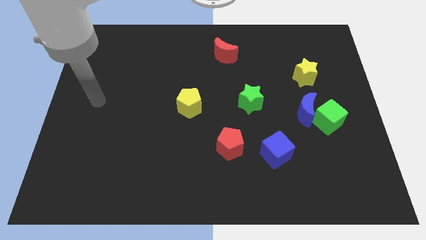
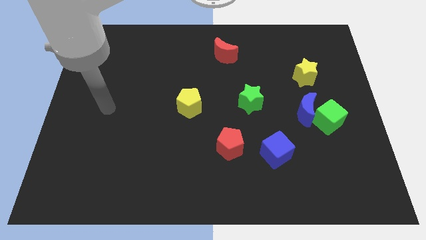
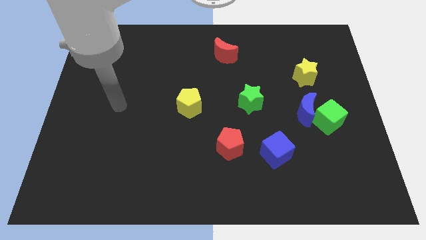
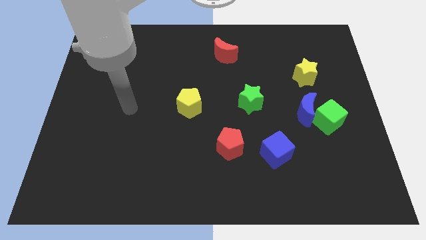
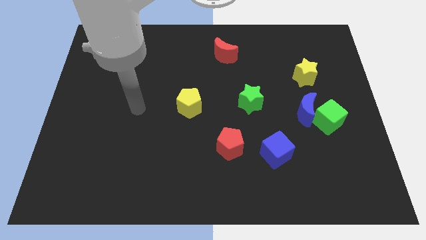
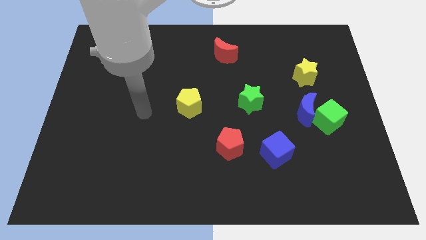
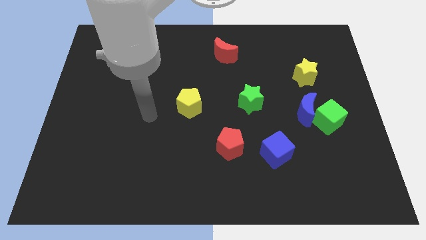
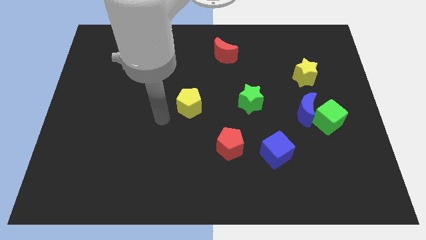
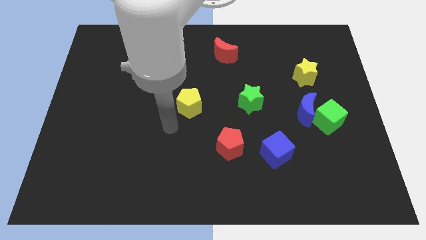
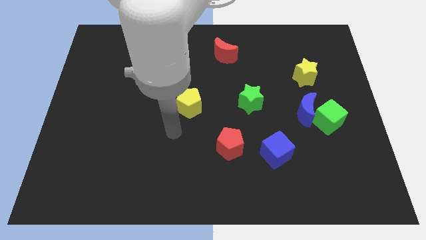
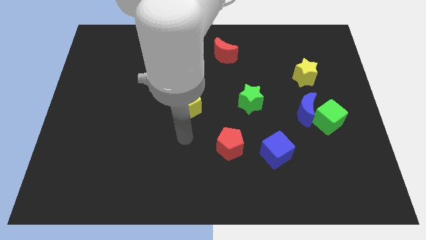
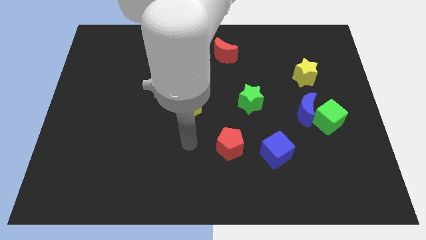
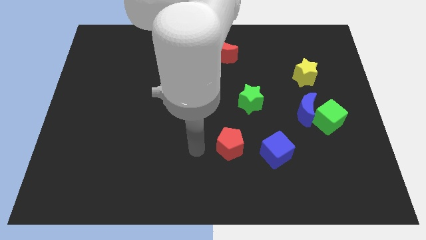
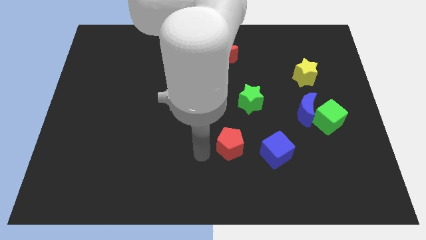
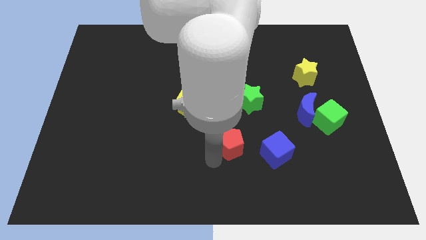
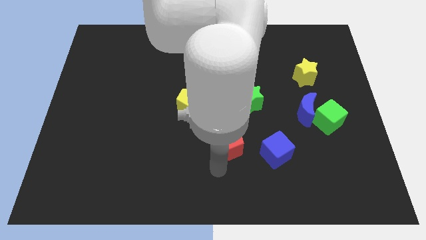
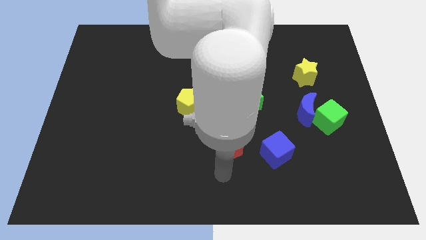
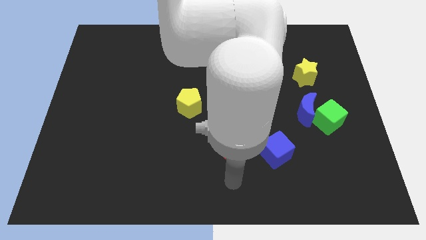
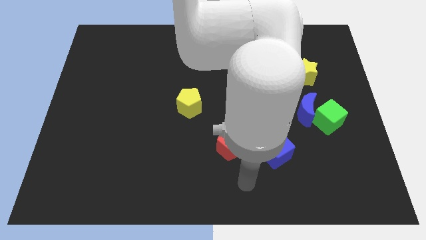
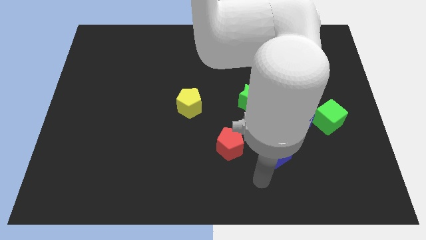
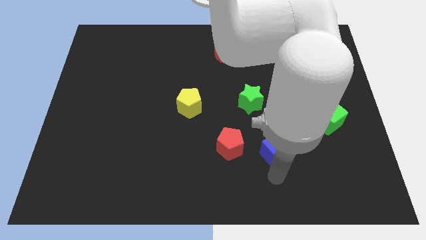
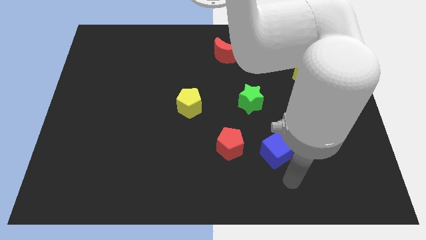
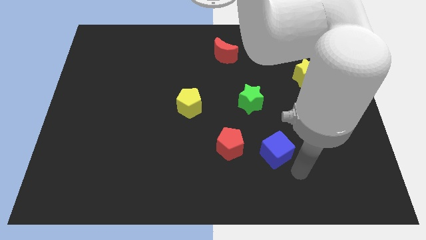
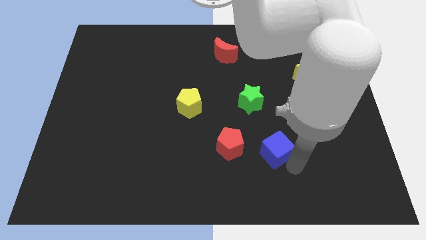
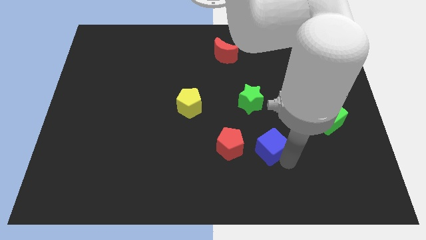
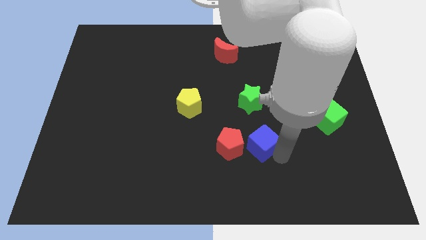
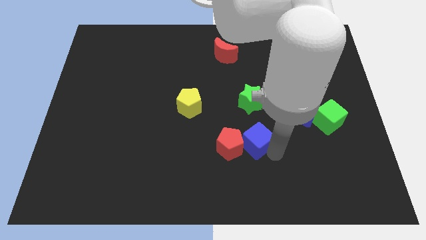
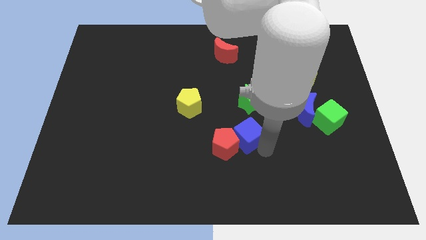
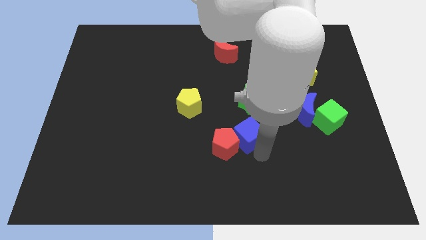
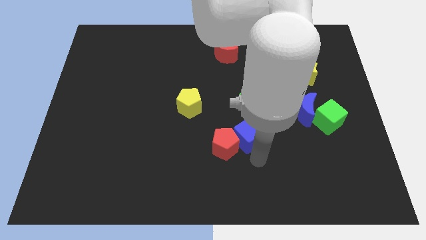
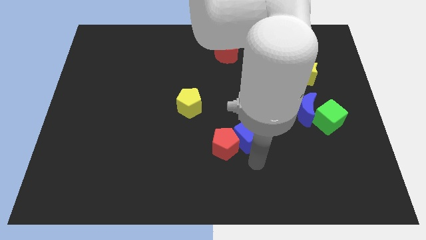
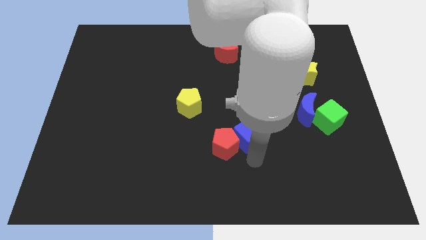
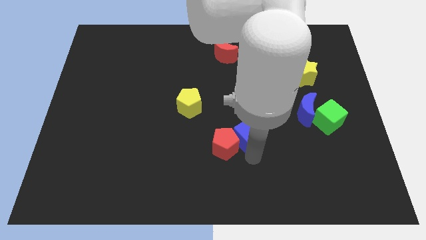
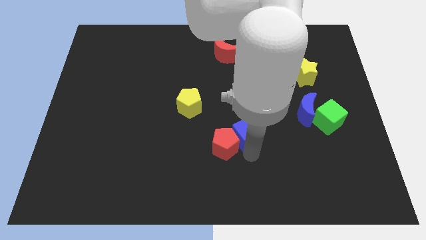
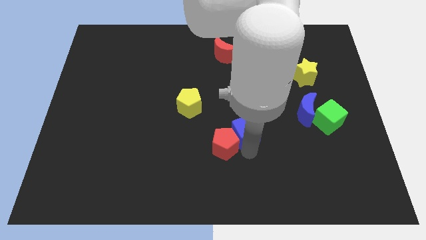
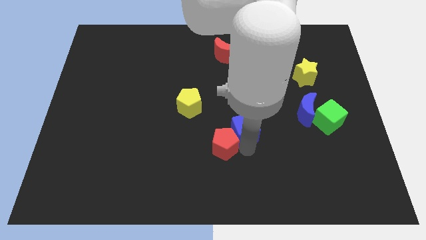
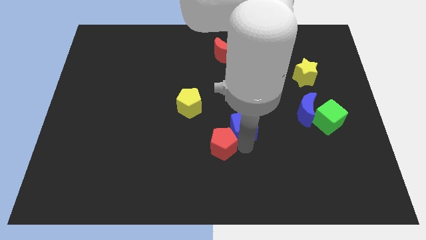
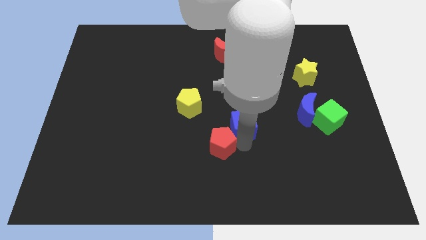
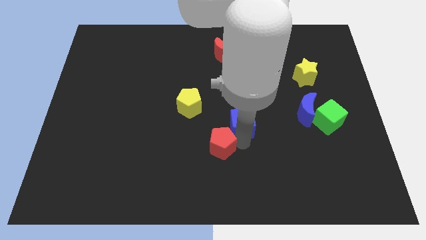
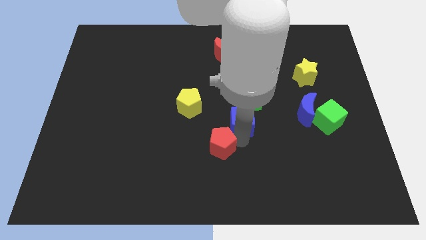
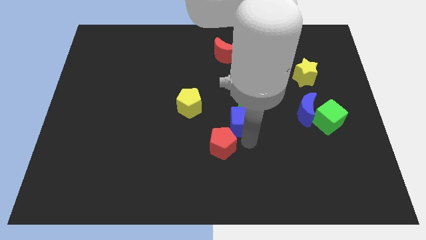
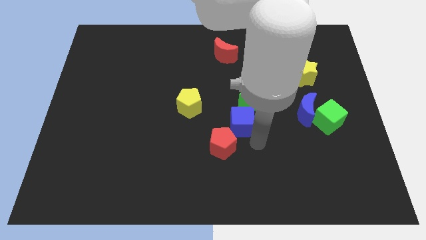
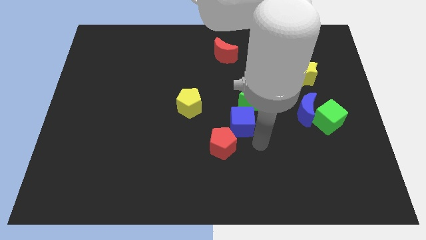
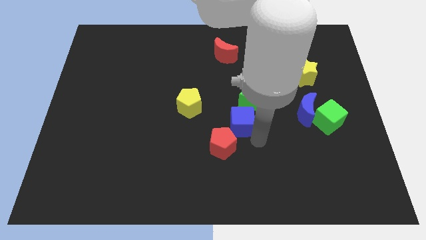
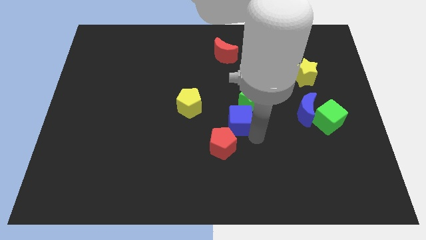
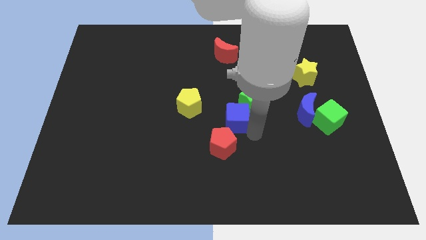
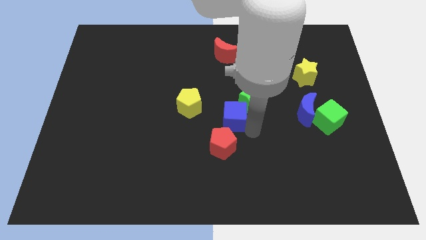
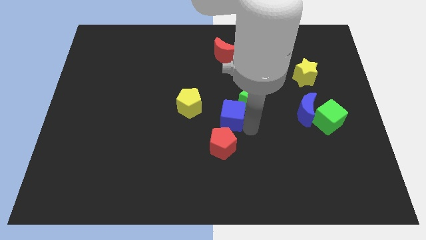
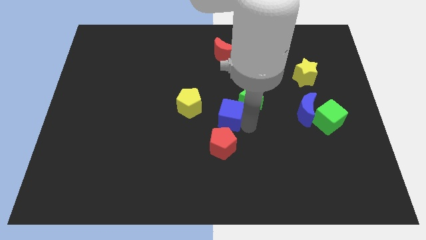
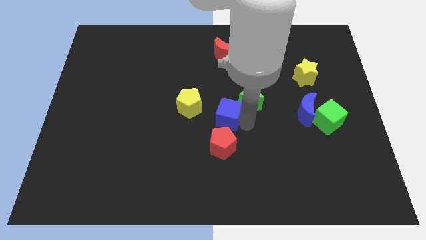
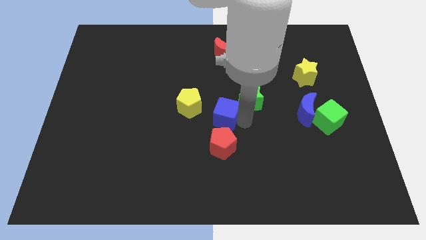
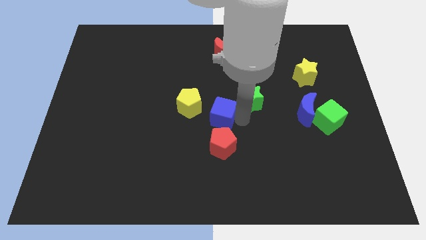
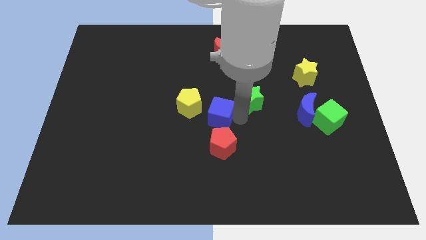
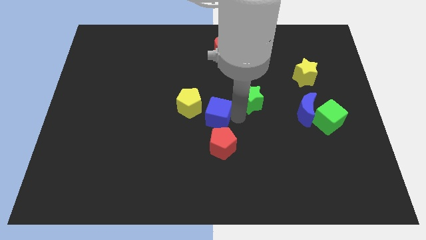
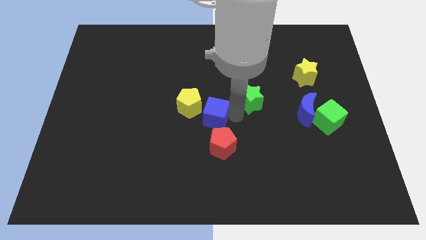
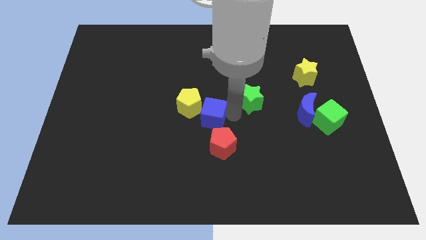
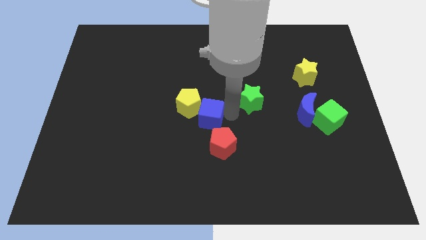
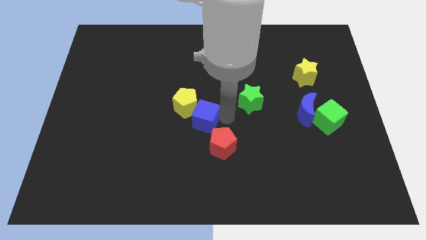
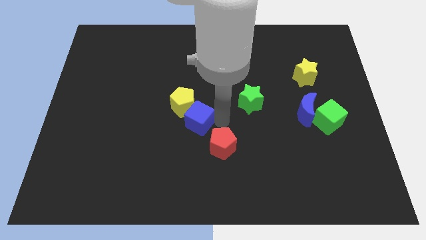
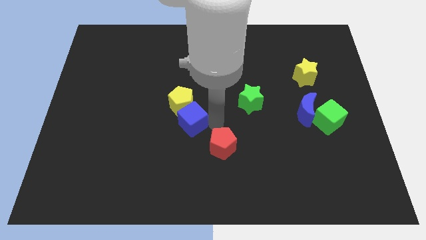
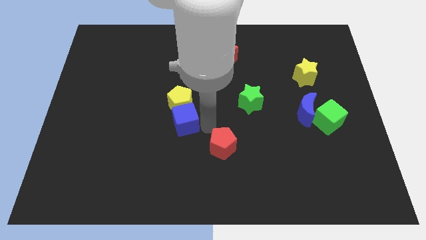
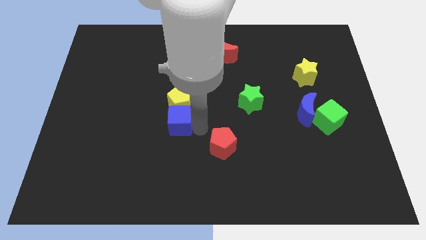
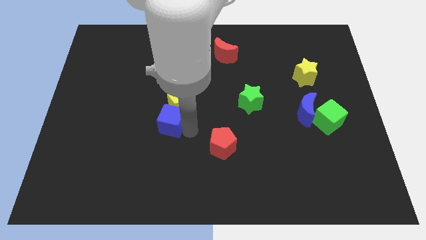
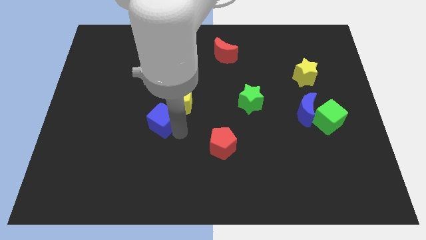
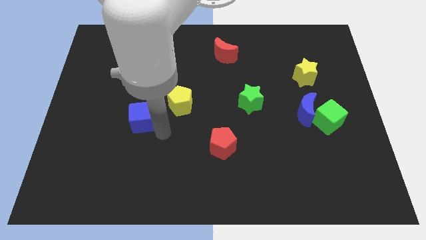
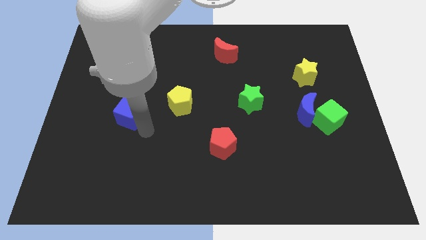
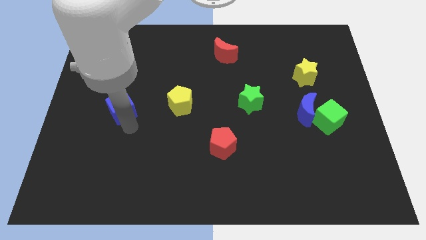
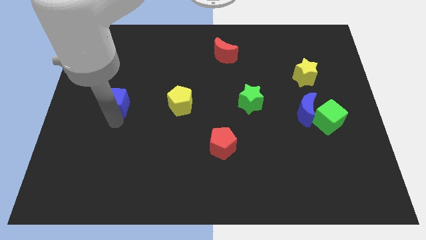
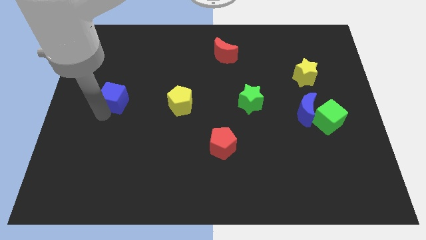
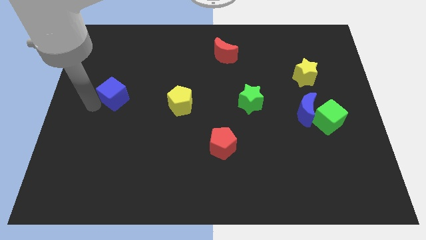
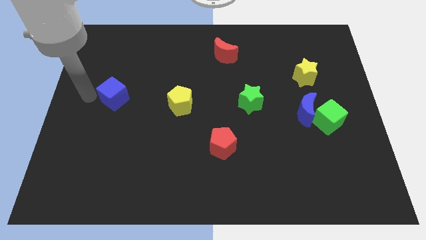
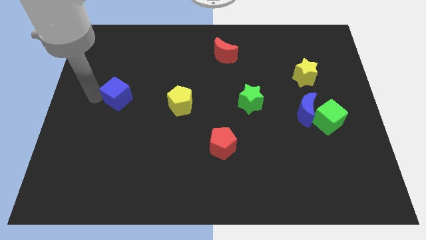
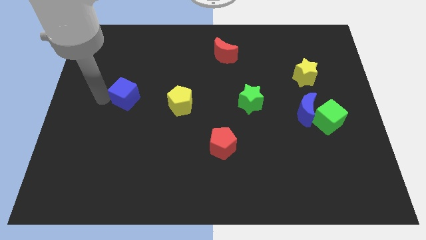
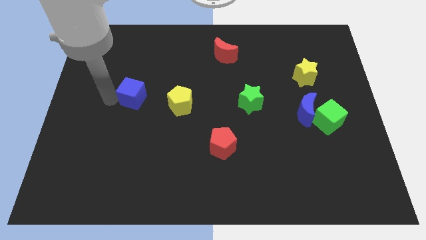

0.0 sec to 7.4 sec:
slide the blue cube diagonally upwards and to the left

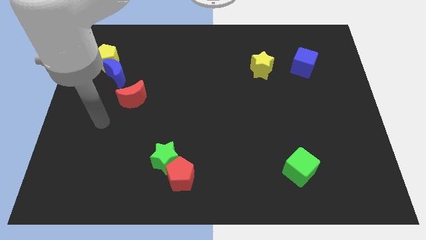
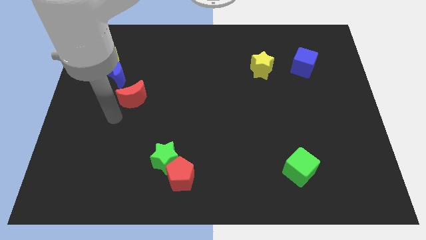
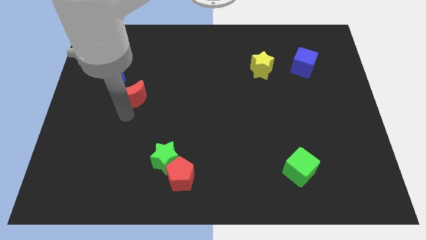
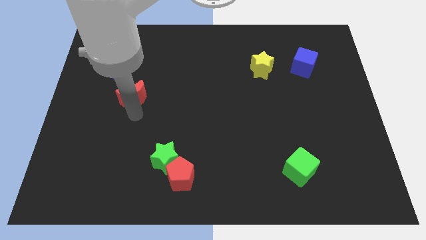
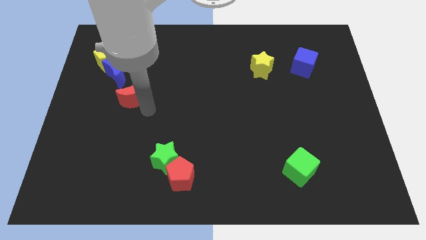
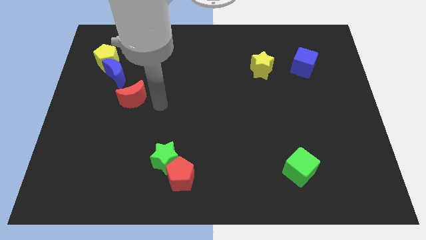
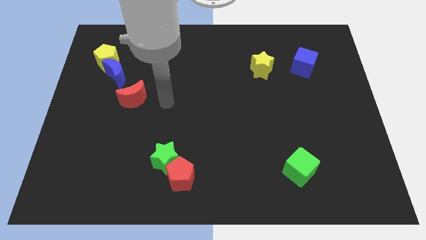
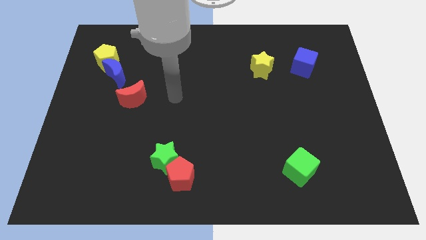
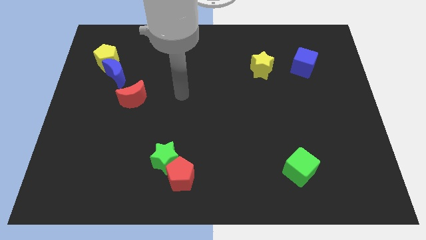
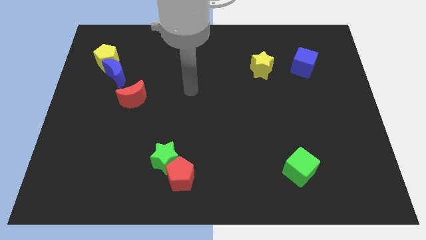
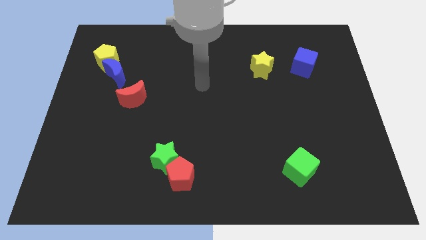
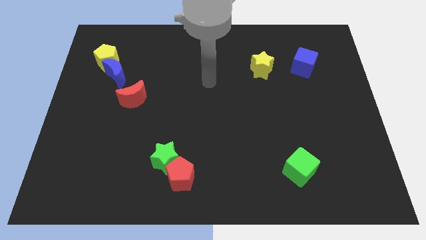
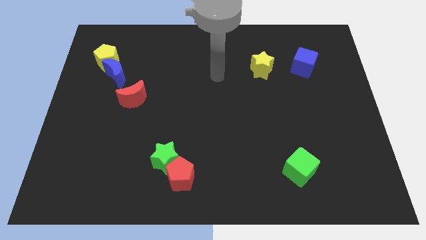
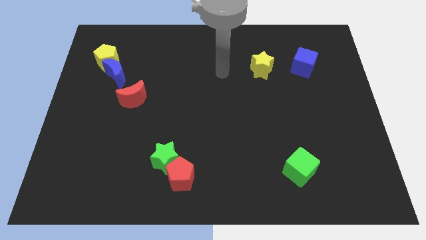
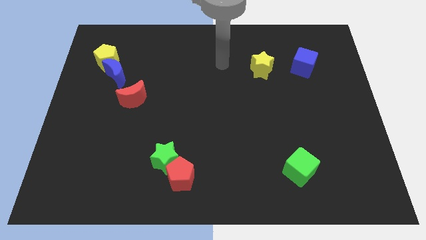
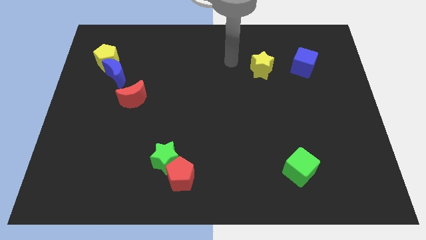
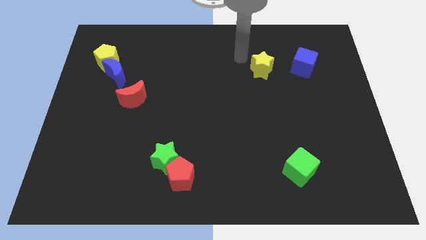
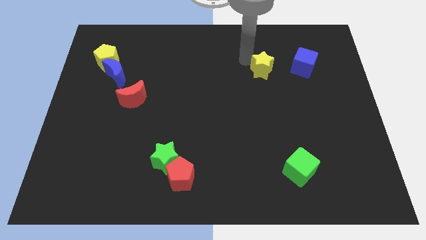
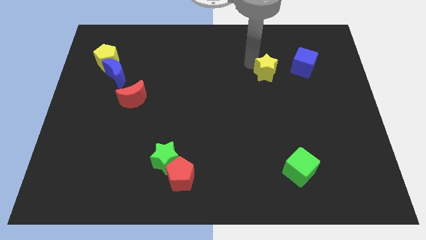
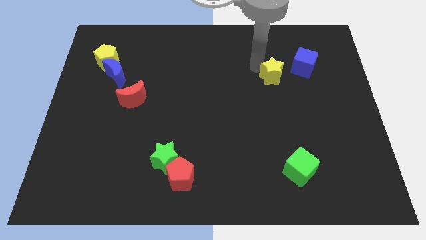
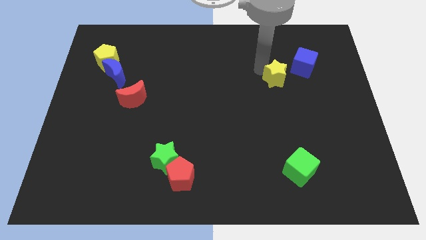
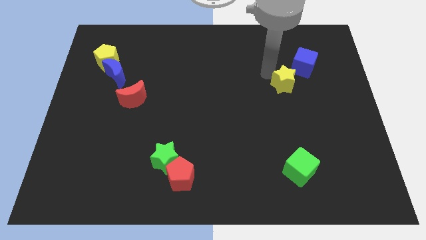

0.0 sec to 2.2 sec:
move the yellow star a bit downwards and to the right diagonally
